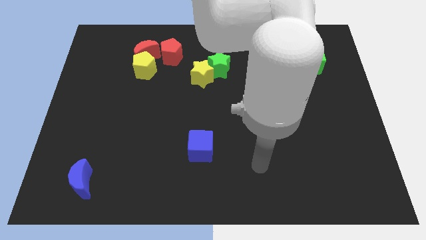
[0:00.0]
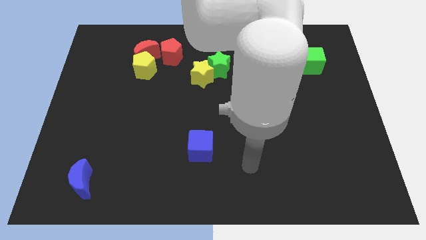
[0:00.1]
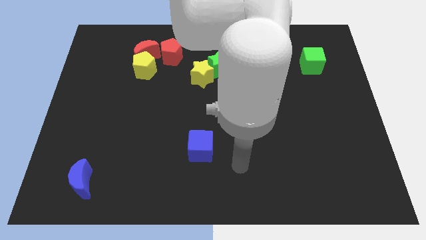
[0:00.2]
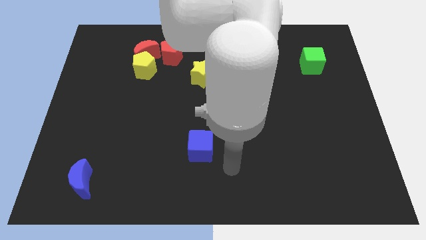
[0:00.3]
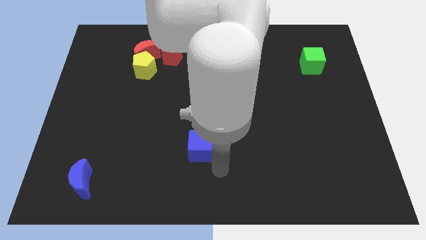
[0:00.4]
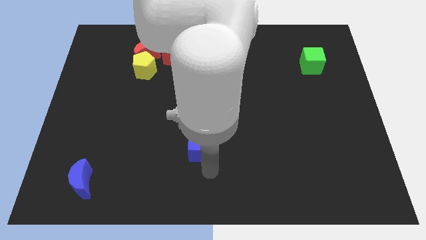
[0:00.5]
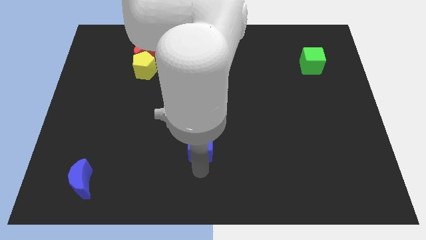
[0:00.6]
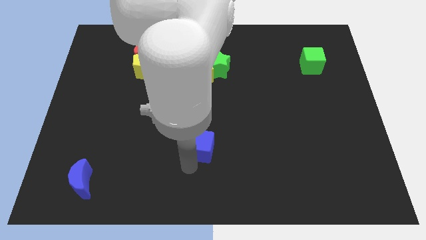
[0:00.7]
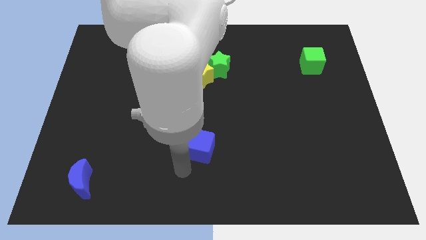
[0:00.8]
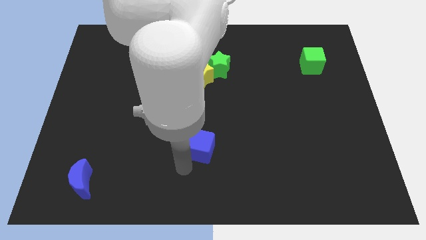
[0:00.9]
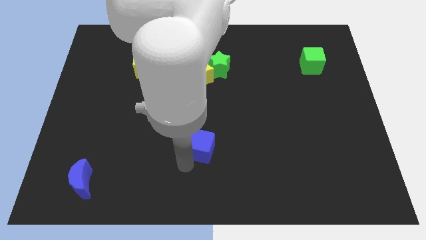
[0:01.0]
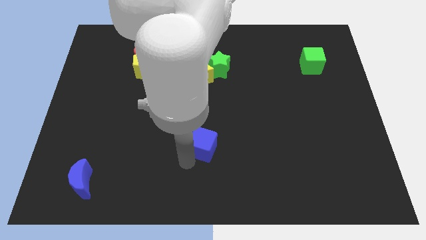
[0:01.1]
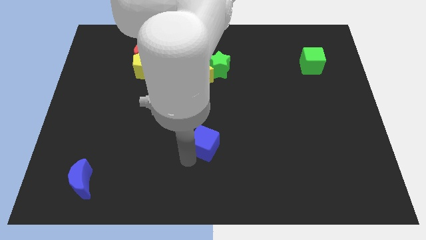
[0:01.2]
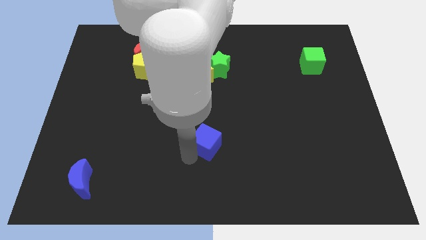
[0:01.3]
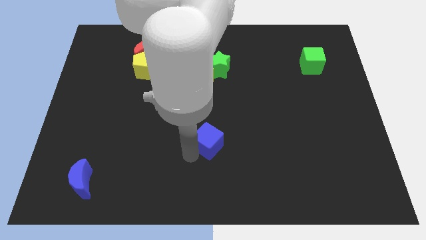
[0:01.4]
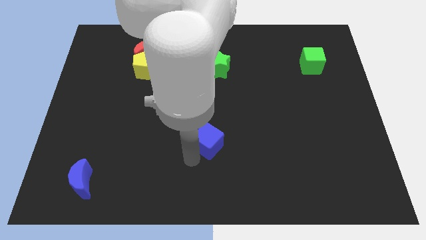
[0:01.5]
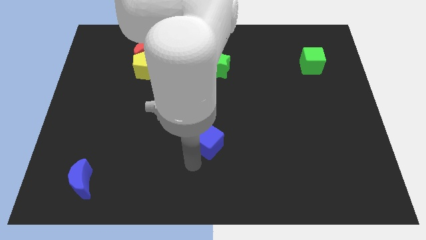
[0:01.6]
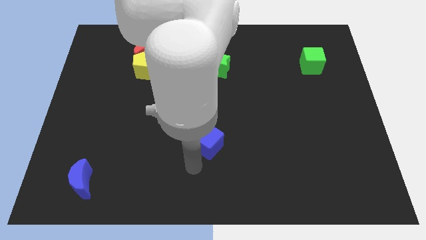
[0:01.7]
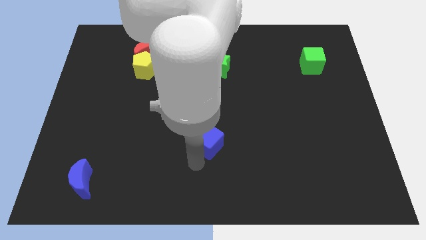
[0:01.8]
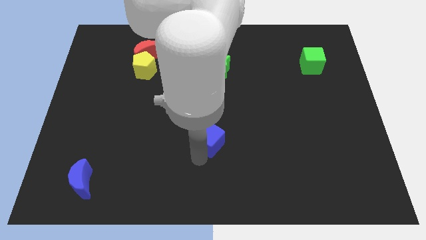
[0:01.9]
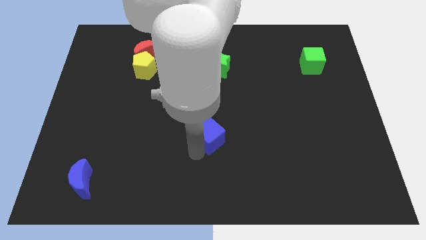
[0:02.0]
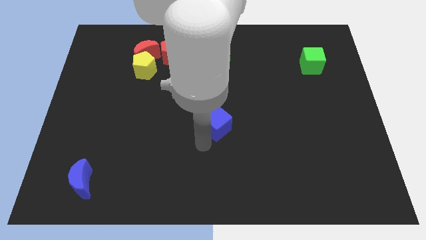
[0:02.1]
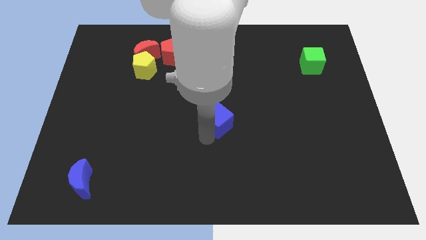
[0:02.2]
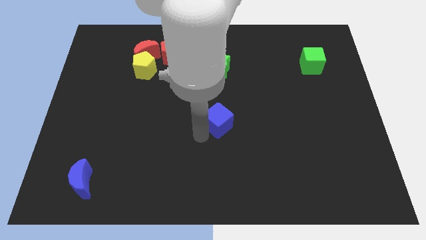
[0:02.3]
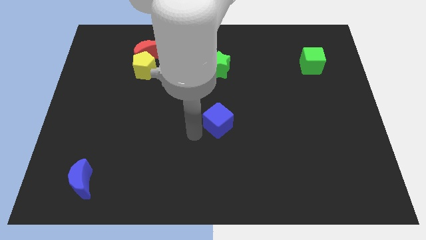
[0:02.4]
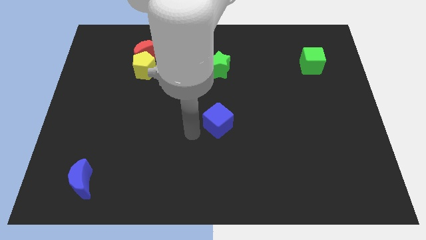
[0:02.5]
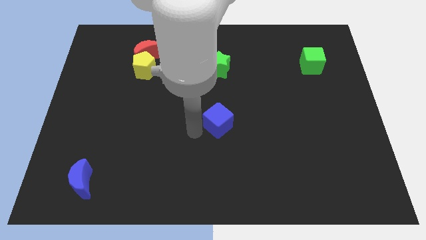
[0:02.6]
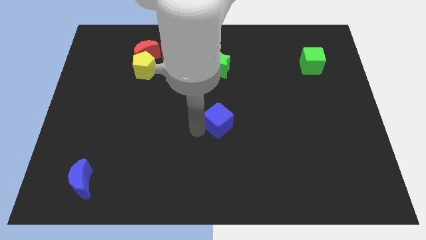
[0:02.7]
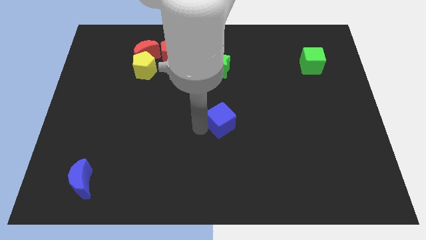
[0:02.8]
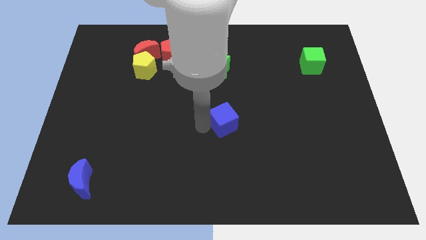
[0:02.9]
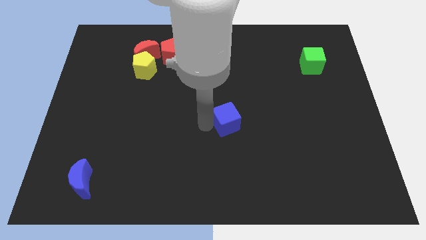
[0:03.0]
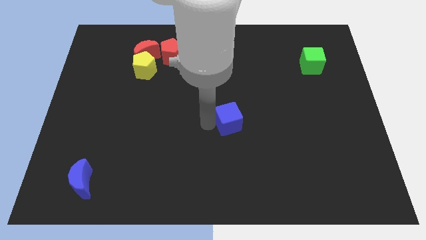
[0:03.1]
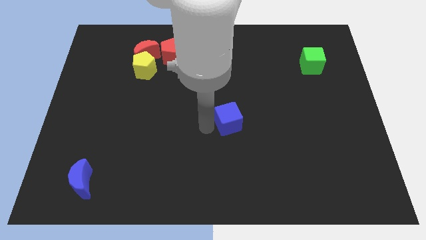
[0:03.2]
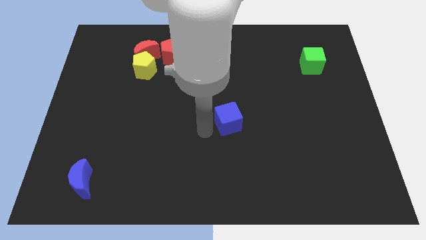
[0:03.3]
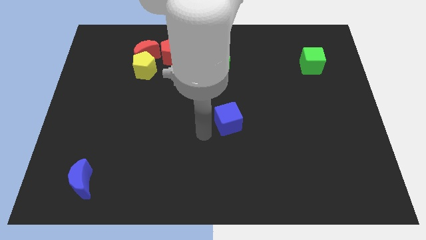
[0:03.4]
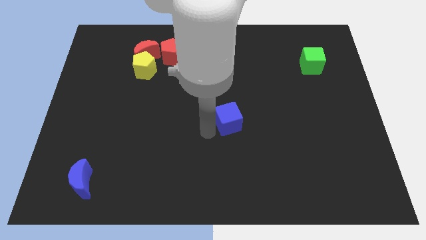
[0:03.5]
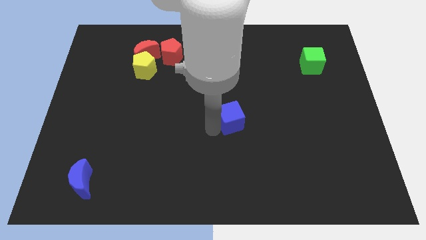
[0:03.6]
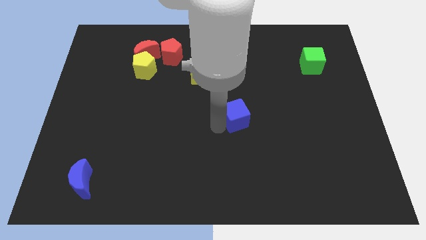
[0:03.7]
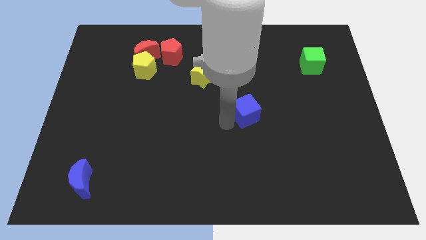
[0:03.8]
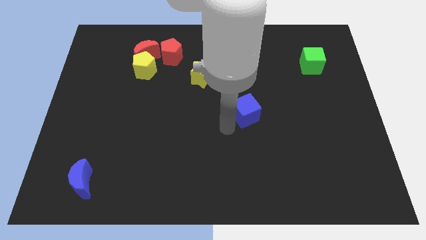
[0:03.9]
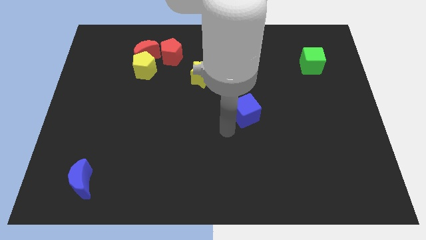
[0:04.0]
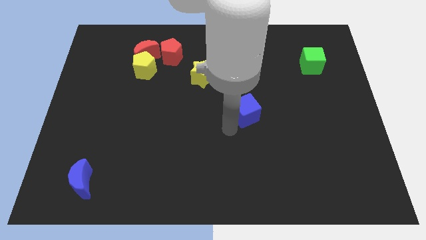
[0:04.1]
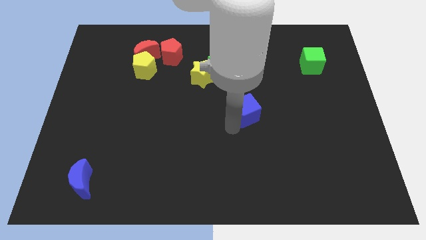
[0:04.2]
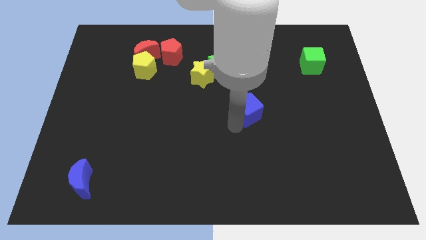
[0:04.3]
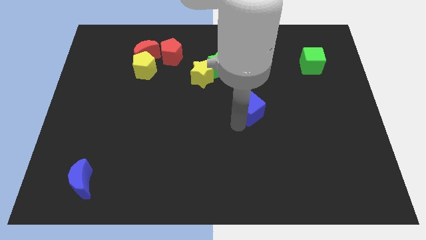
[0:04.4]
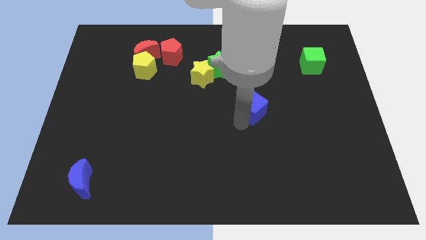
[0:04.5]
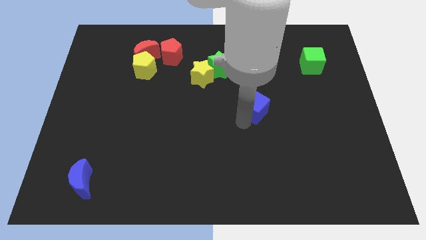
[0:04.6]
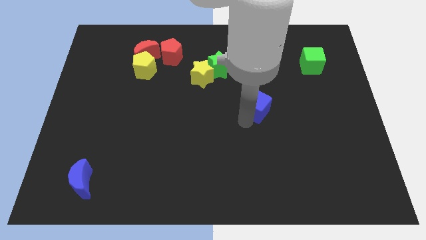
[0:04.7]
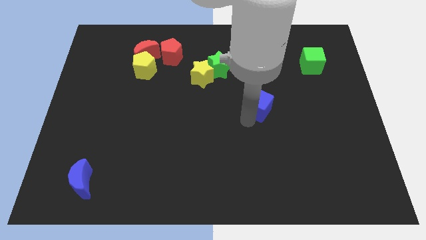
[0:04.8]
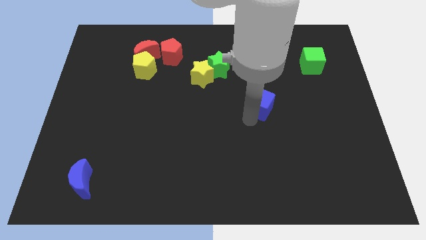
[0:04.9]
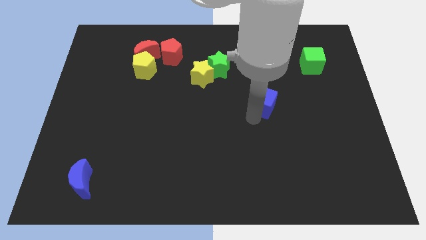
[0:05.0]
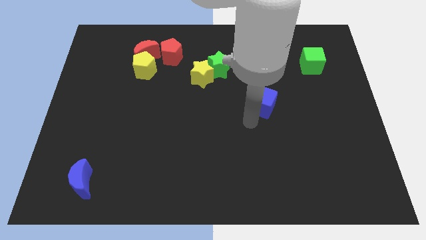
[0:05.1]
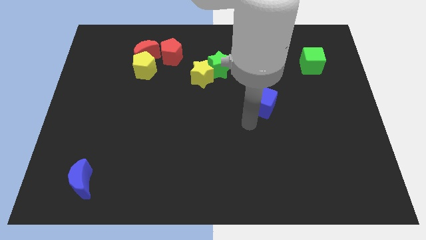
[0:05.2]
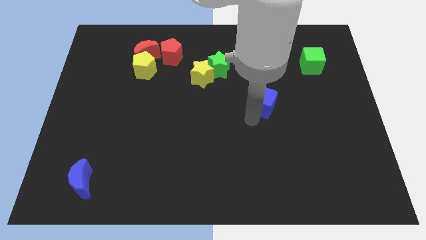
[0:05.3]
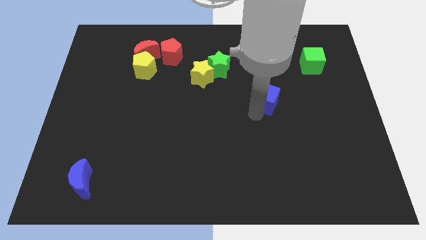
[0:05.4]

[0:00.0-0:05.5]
push the blue cube upwards and right diagonally

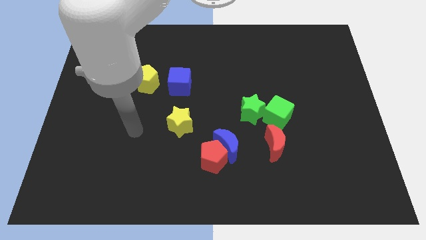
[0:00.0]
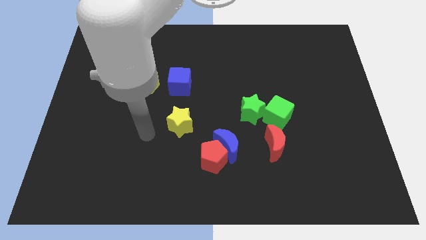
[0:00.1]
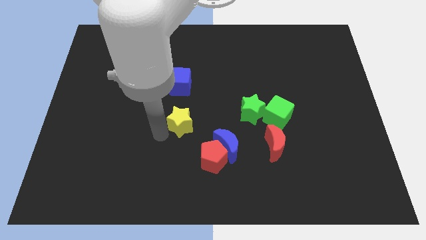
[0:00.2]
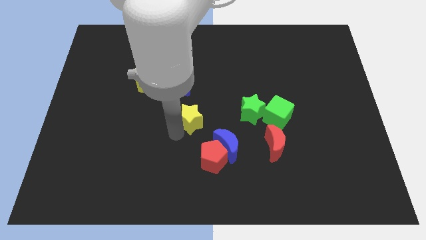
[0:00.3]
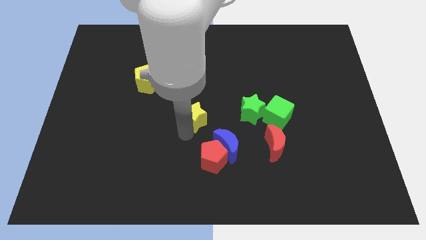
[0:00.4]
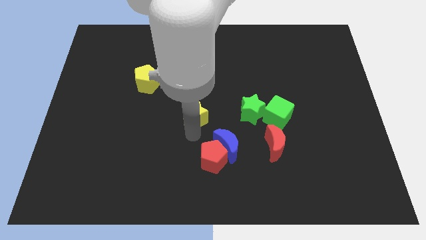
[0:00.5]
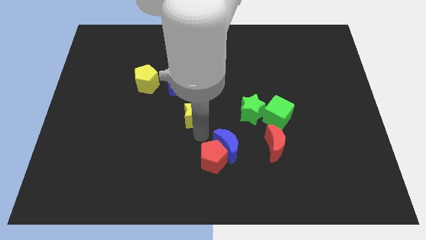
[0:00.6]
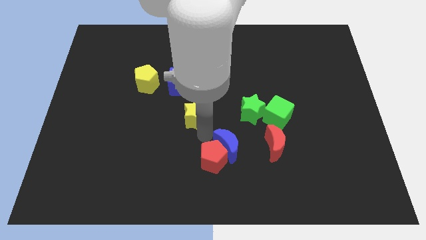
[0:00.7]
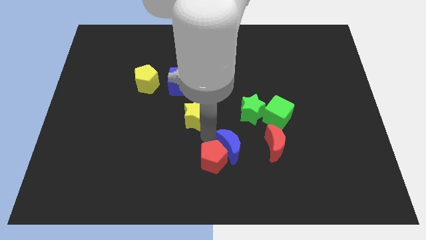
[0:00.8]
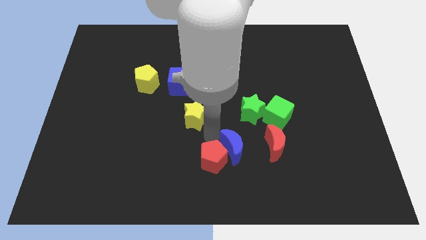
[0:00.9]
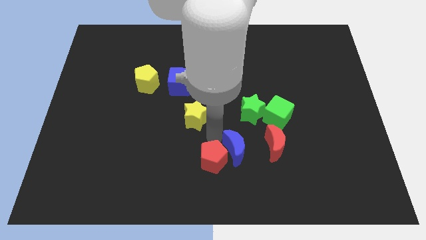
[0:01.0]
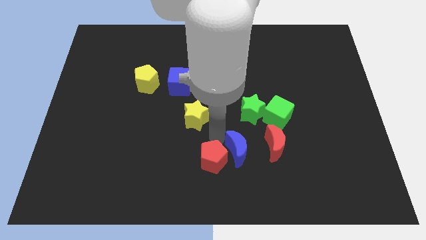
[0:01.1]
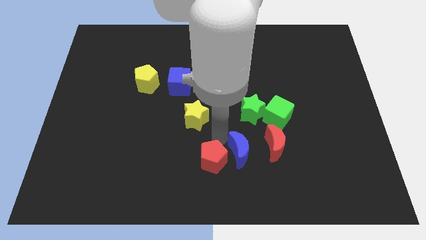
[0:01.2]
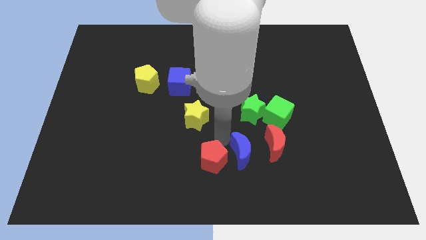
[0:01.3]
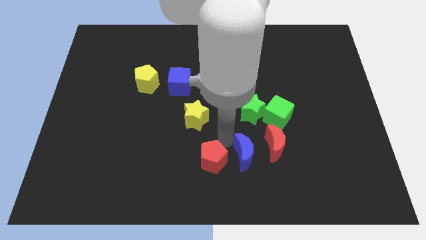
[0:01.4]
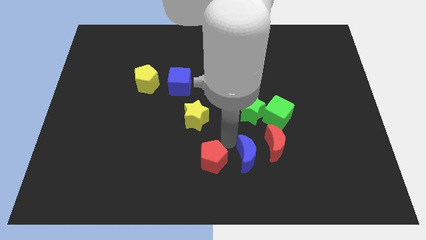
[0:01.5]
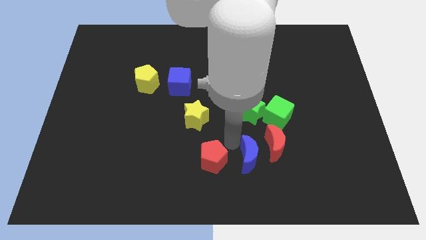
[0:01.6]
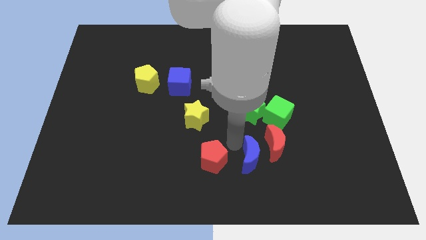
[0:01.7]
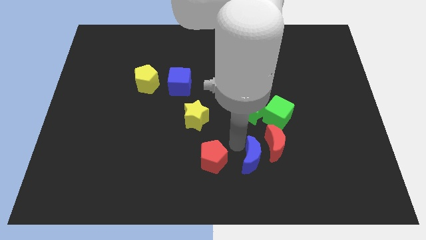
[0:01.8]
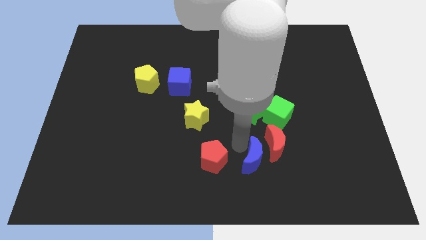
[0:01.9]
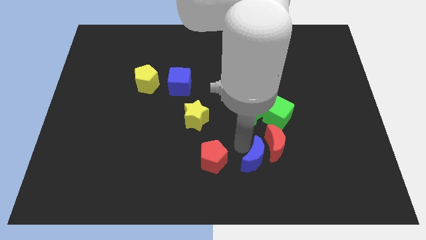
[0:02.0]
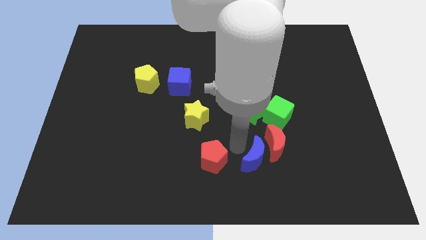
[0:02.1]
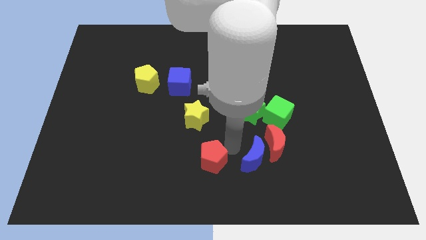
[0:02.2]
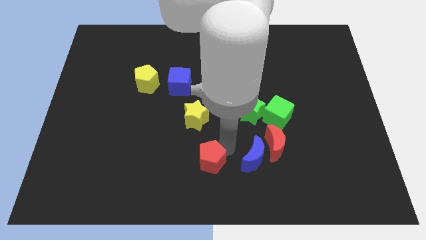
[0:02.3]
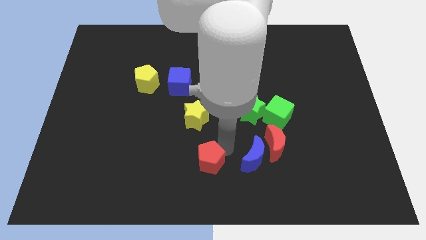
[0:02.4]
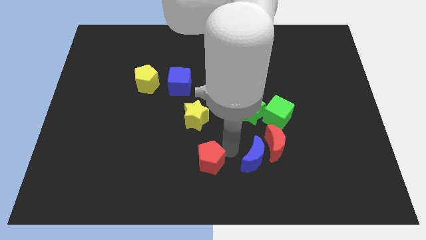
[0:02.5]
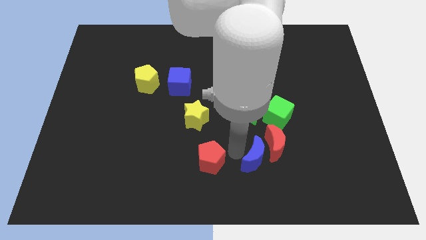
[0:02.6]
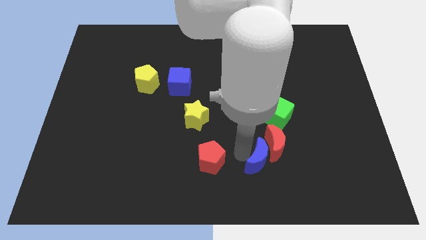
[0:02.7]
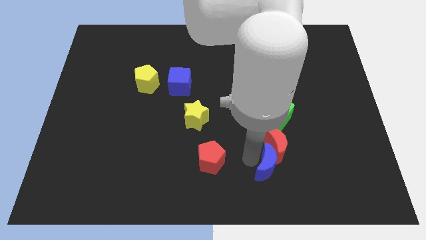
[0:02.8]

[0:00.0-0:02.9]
slide the blue moon to the right a little
